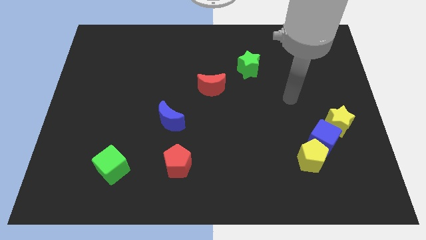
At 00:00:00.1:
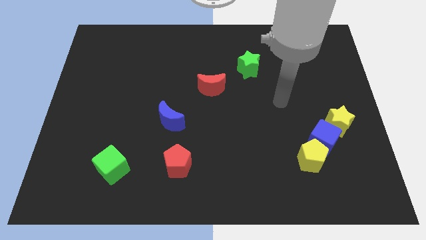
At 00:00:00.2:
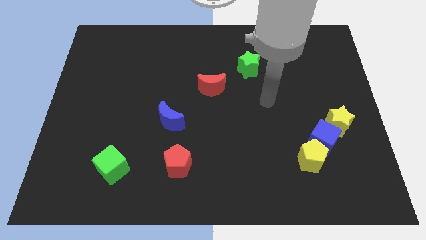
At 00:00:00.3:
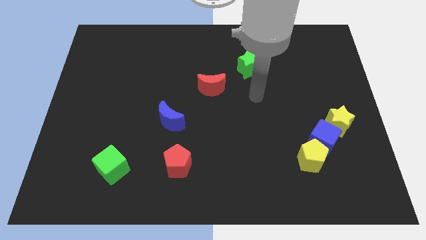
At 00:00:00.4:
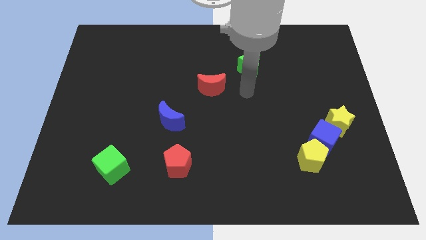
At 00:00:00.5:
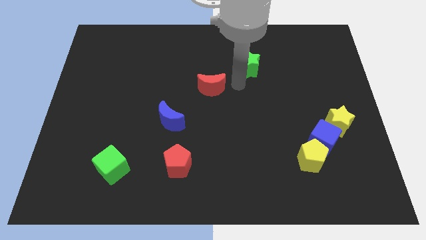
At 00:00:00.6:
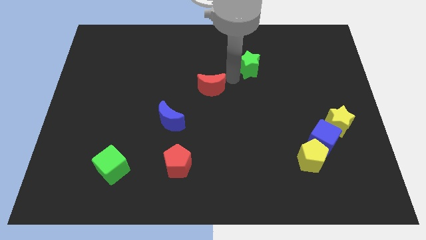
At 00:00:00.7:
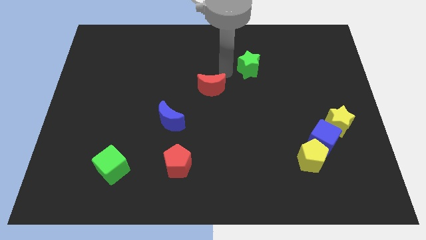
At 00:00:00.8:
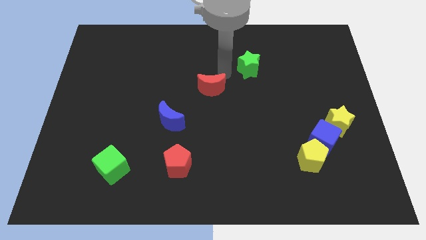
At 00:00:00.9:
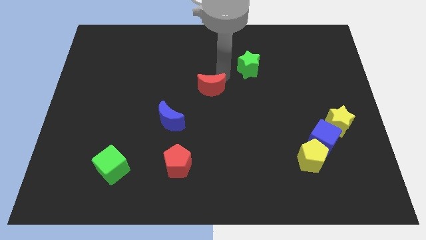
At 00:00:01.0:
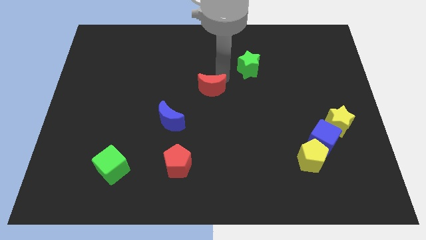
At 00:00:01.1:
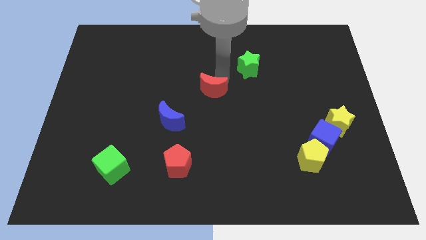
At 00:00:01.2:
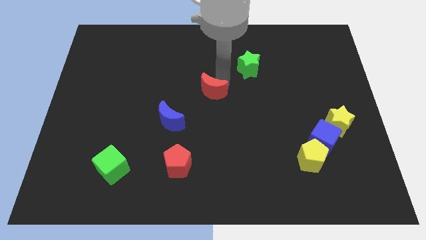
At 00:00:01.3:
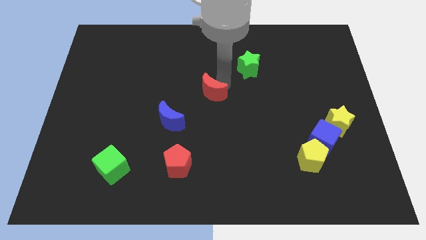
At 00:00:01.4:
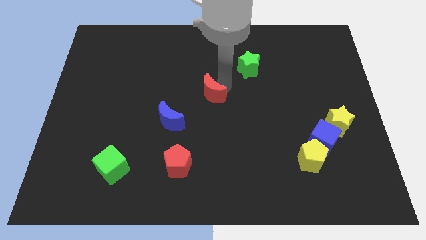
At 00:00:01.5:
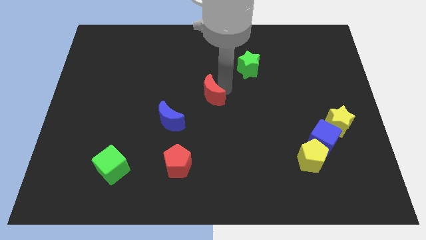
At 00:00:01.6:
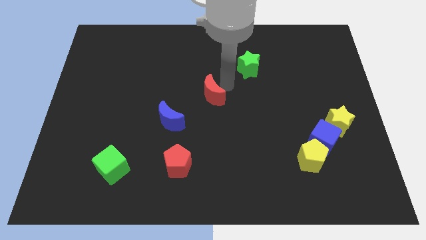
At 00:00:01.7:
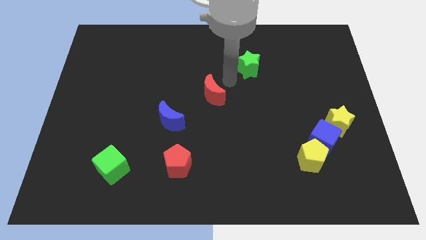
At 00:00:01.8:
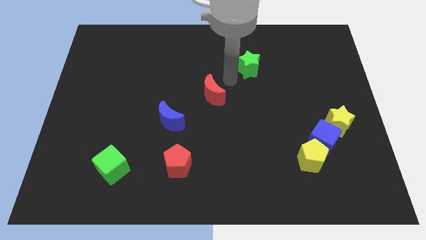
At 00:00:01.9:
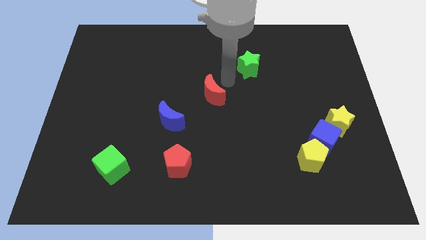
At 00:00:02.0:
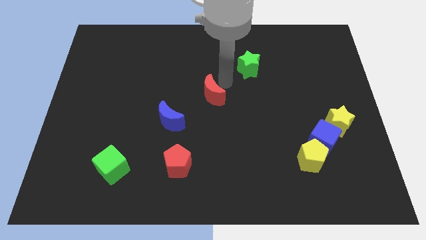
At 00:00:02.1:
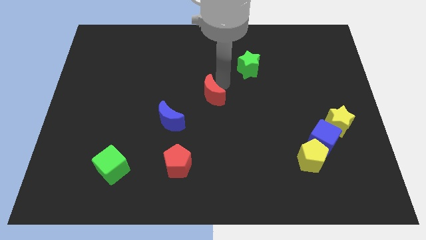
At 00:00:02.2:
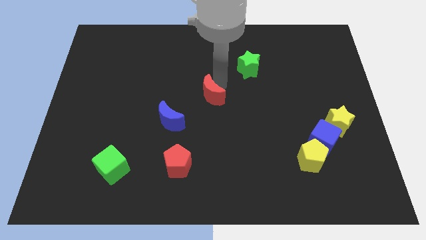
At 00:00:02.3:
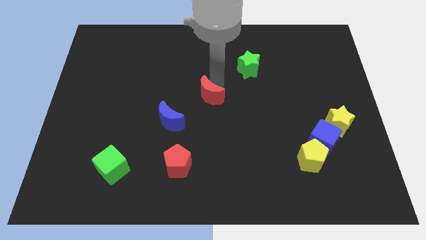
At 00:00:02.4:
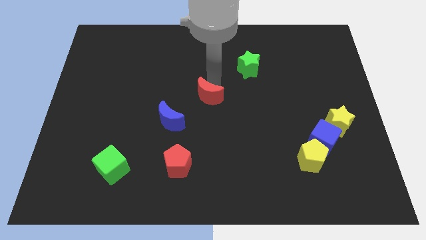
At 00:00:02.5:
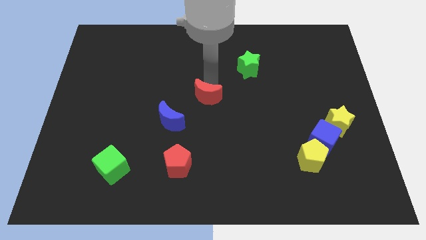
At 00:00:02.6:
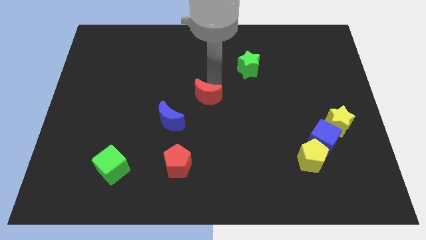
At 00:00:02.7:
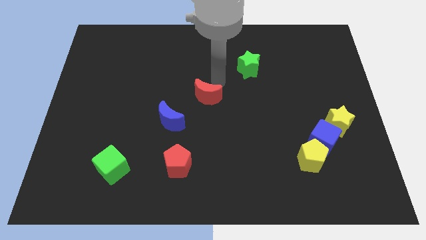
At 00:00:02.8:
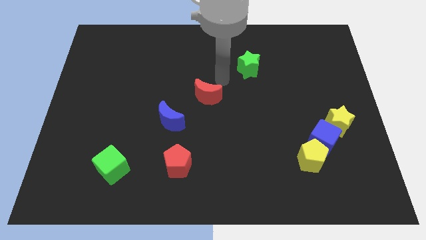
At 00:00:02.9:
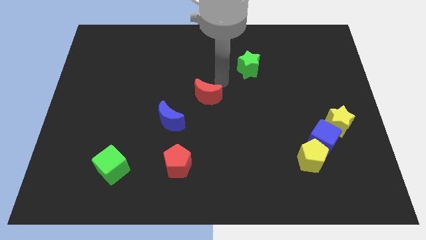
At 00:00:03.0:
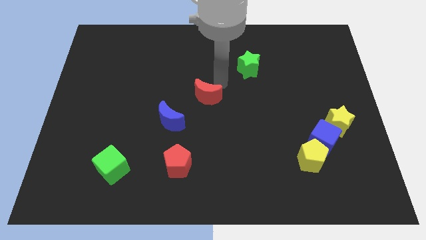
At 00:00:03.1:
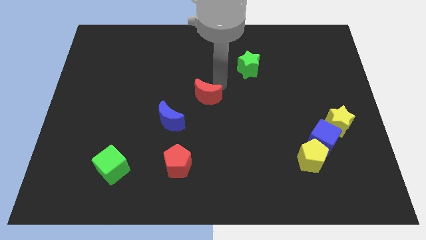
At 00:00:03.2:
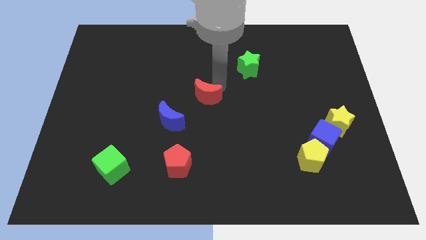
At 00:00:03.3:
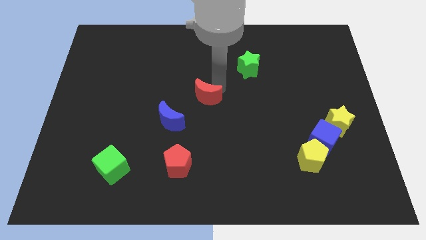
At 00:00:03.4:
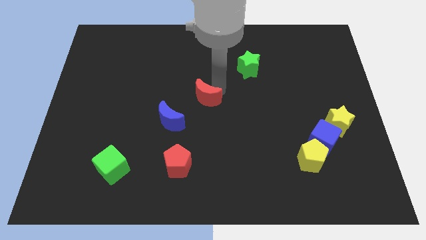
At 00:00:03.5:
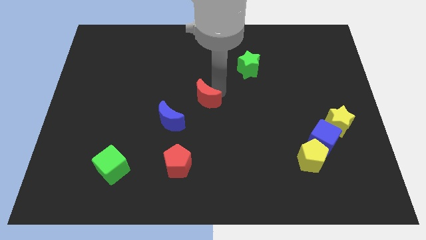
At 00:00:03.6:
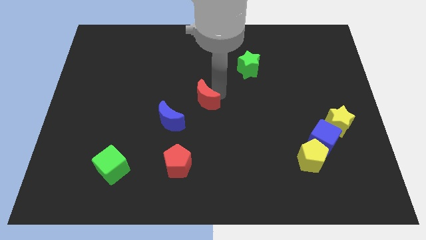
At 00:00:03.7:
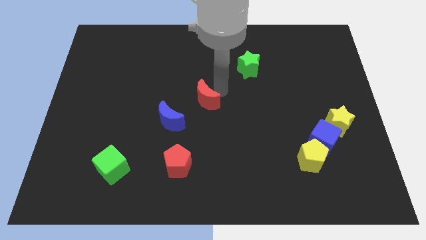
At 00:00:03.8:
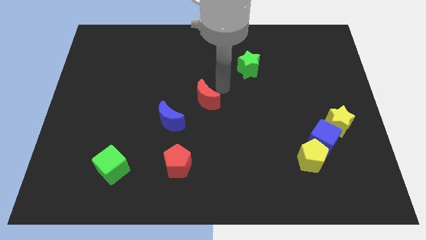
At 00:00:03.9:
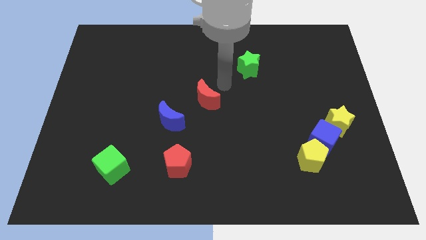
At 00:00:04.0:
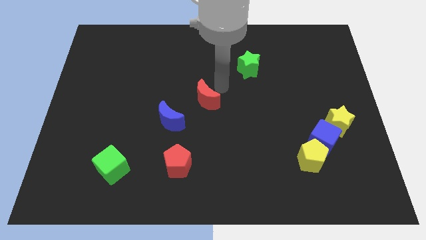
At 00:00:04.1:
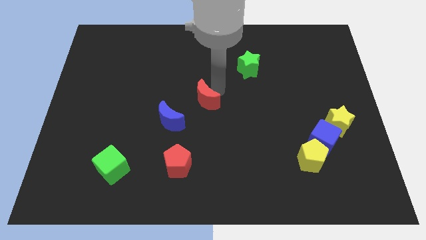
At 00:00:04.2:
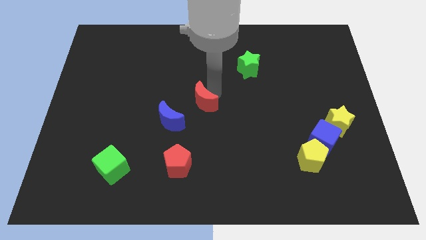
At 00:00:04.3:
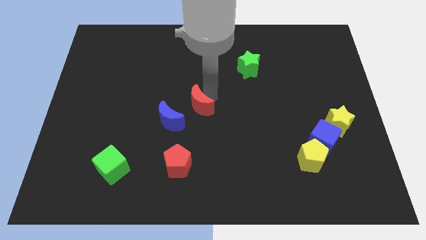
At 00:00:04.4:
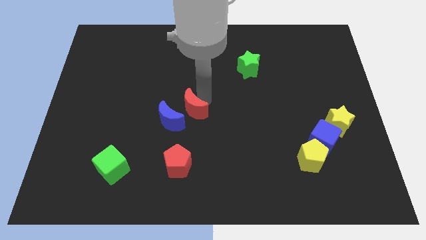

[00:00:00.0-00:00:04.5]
move the red moon a bit downwards and left diagonally

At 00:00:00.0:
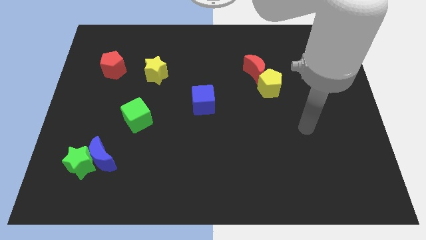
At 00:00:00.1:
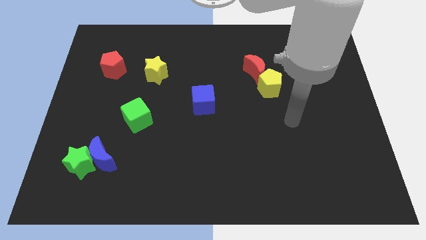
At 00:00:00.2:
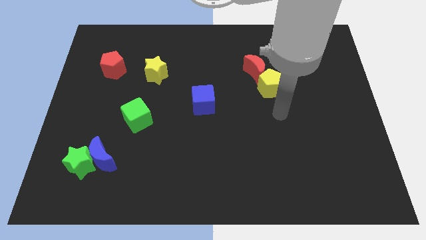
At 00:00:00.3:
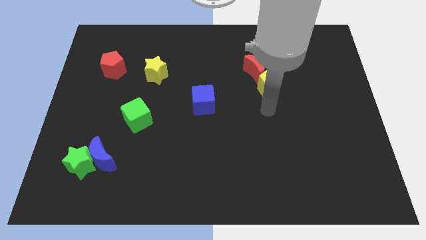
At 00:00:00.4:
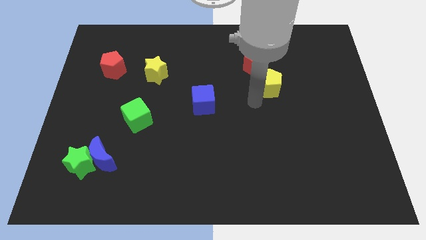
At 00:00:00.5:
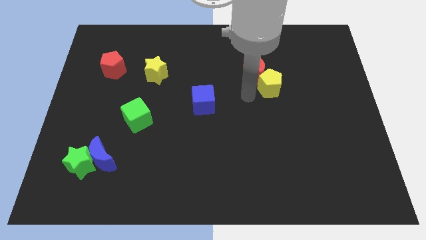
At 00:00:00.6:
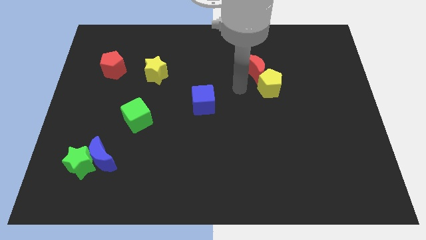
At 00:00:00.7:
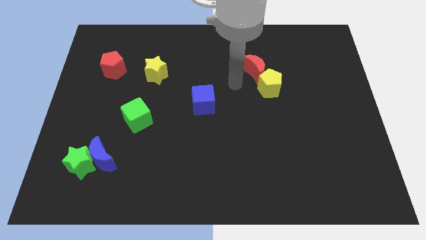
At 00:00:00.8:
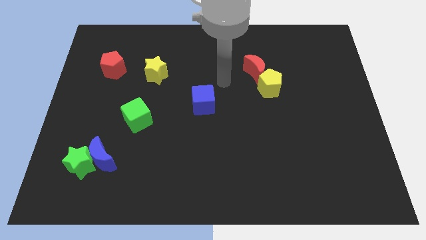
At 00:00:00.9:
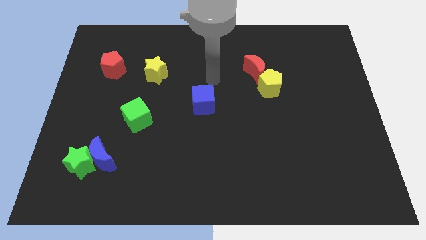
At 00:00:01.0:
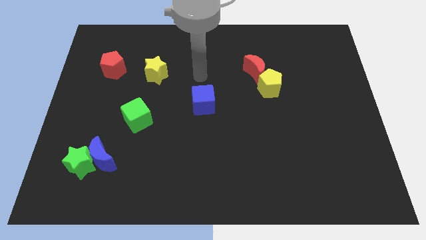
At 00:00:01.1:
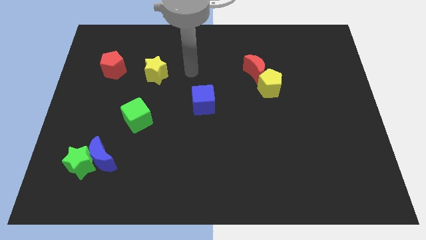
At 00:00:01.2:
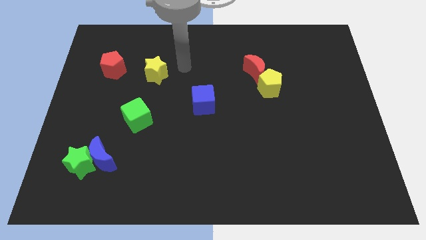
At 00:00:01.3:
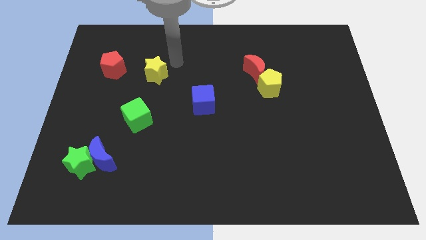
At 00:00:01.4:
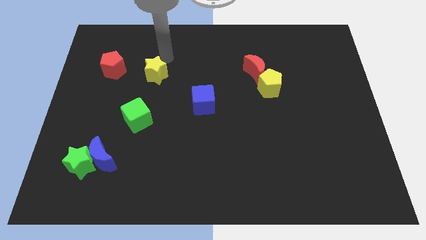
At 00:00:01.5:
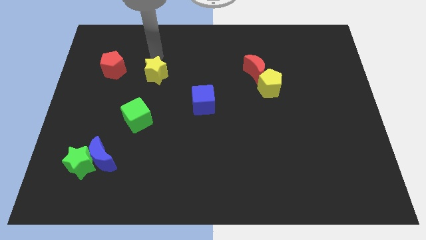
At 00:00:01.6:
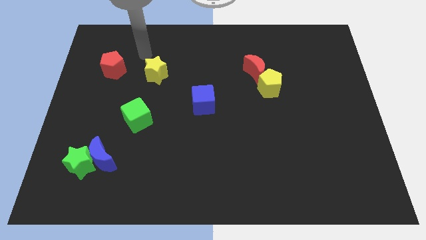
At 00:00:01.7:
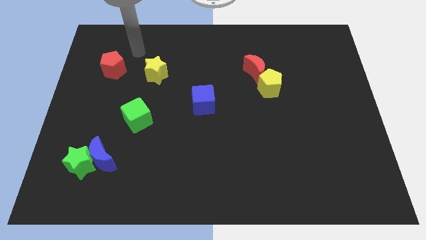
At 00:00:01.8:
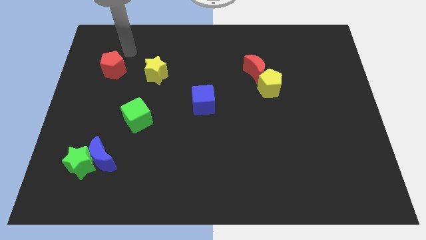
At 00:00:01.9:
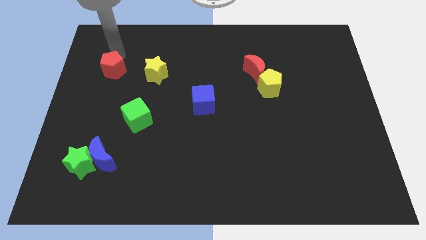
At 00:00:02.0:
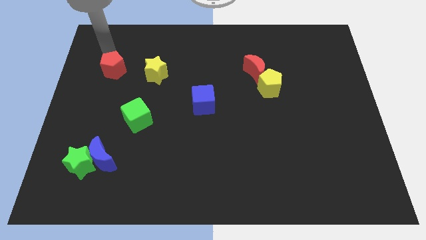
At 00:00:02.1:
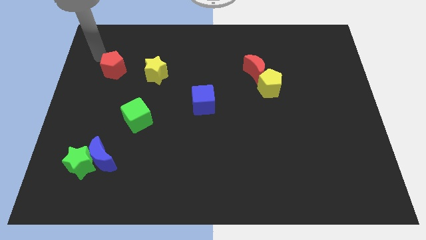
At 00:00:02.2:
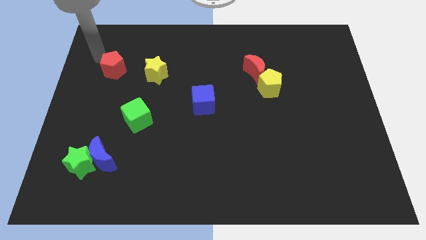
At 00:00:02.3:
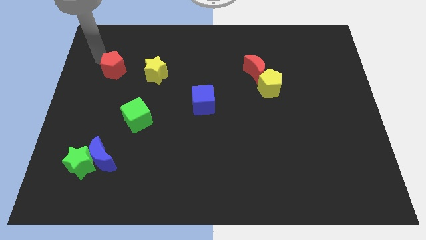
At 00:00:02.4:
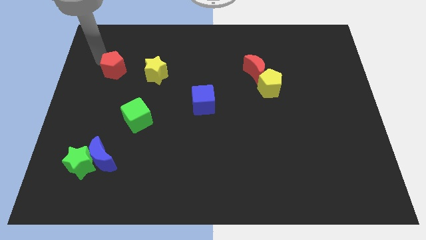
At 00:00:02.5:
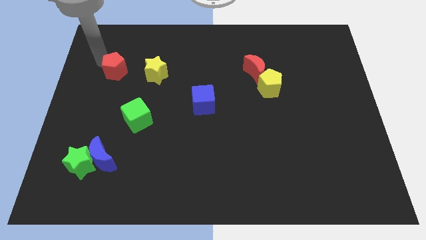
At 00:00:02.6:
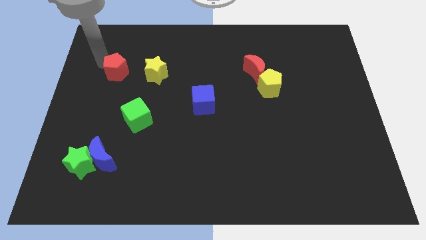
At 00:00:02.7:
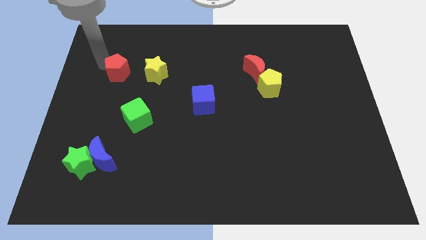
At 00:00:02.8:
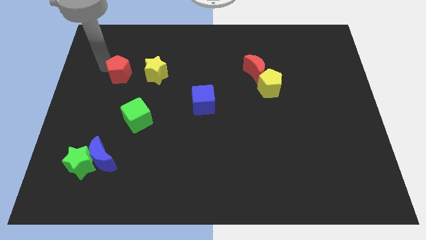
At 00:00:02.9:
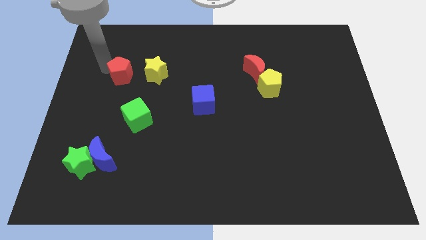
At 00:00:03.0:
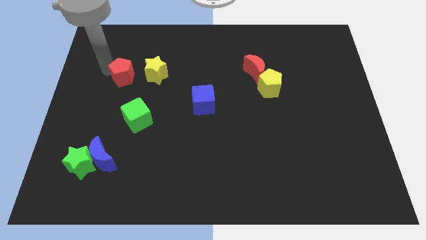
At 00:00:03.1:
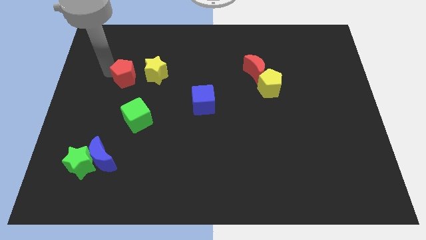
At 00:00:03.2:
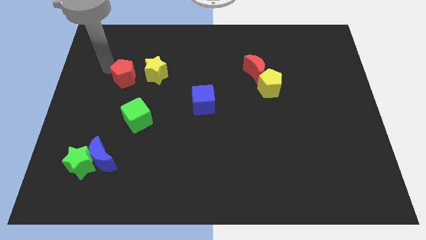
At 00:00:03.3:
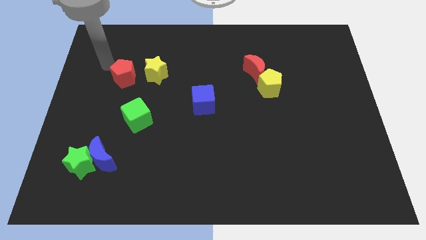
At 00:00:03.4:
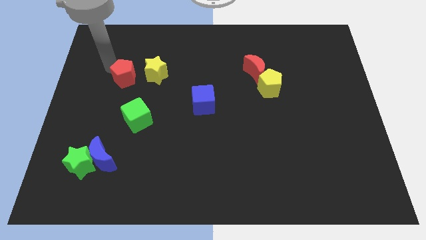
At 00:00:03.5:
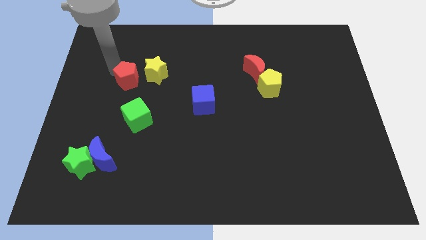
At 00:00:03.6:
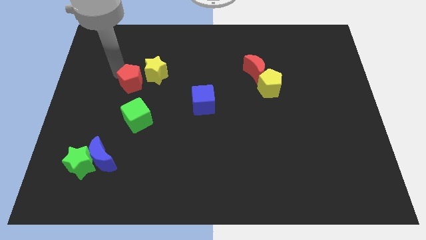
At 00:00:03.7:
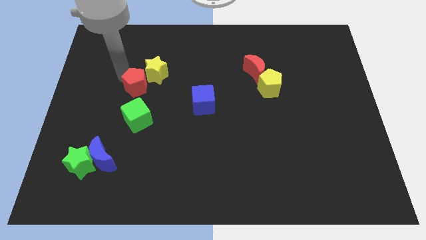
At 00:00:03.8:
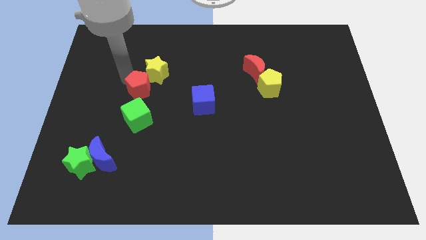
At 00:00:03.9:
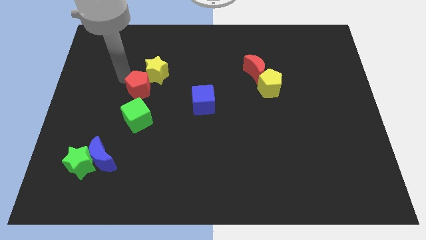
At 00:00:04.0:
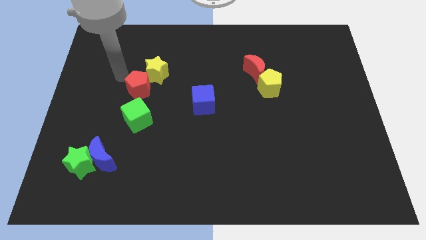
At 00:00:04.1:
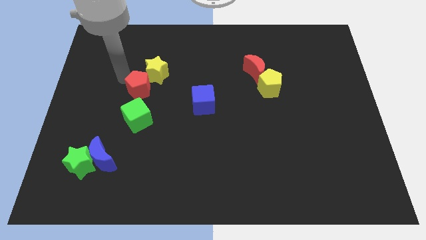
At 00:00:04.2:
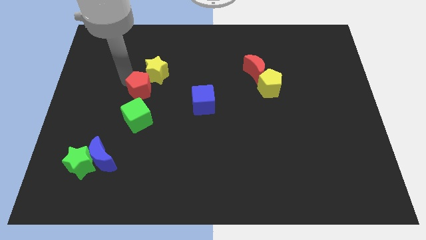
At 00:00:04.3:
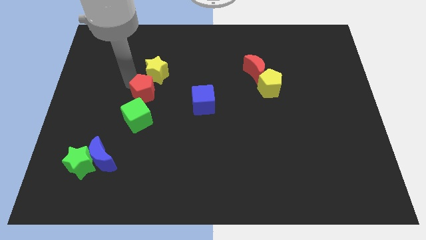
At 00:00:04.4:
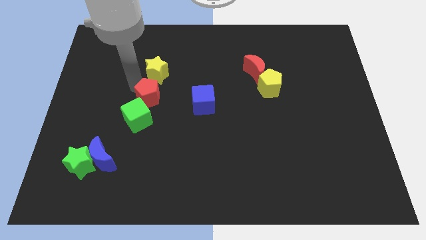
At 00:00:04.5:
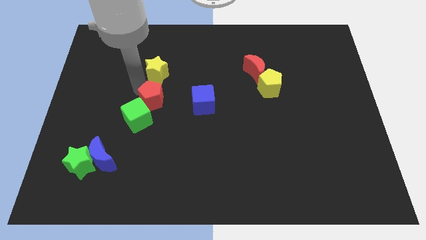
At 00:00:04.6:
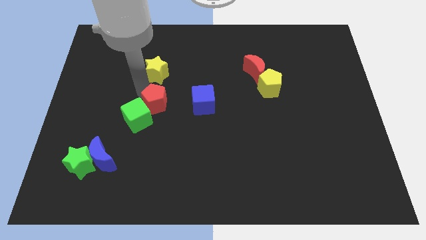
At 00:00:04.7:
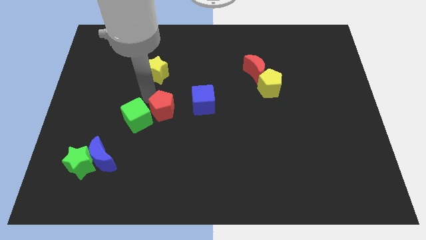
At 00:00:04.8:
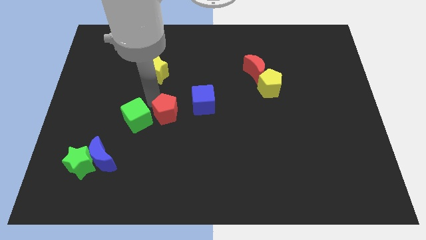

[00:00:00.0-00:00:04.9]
move the red pentagon down and right
